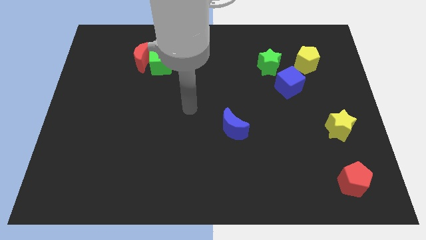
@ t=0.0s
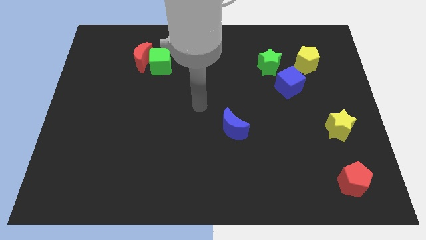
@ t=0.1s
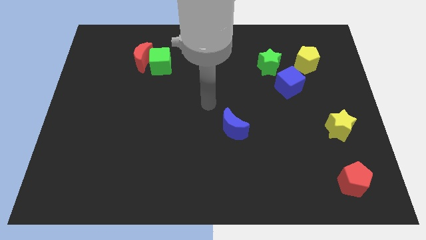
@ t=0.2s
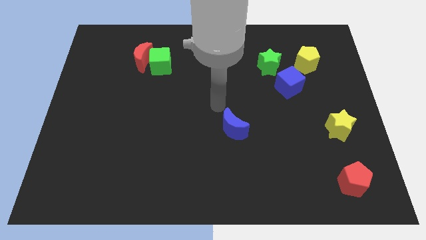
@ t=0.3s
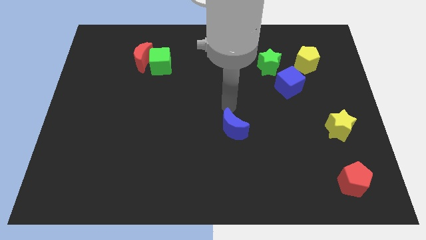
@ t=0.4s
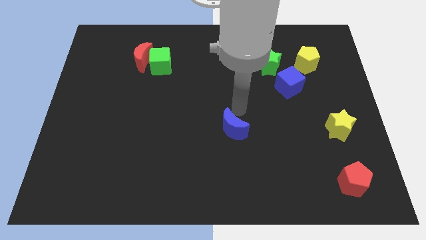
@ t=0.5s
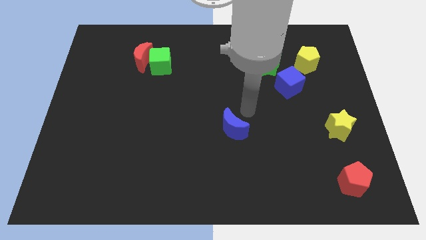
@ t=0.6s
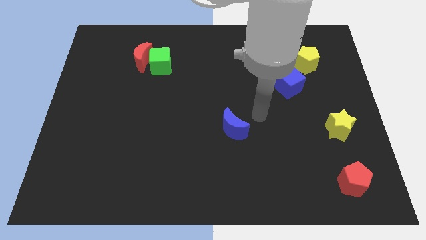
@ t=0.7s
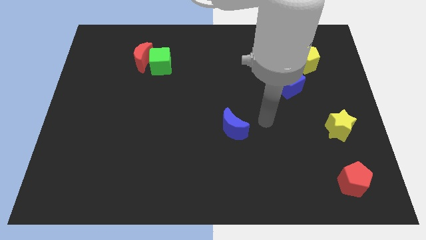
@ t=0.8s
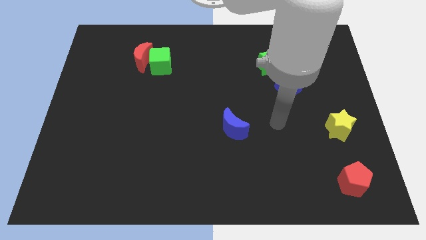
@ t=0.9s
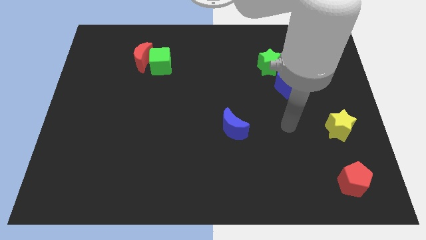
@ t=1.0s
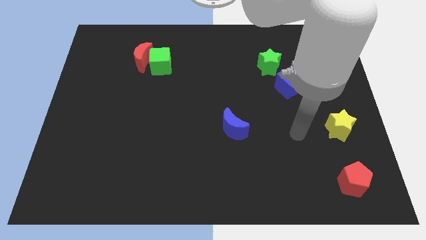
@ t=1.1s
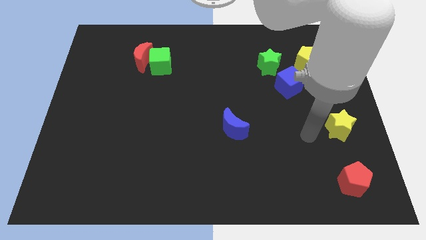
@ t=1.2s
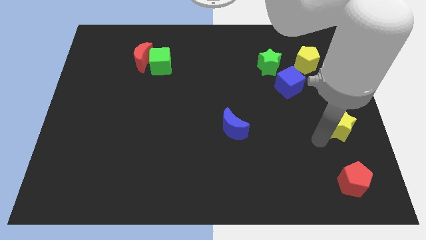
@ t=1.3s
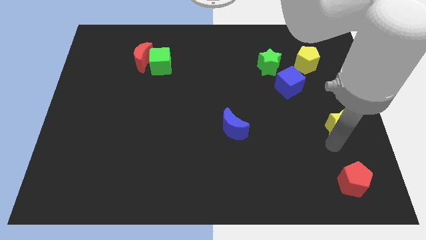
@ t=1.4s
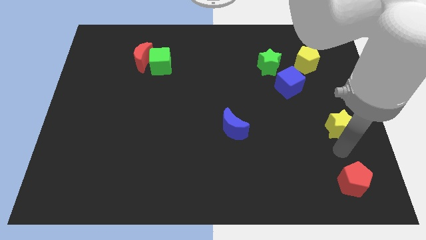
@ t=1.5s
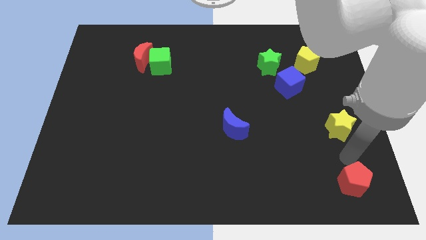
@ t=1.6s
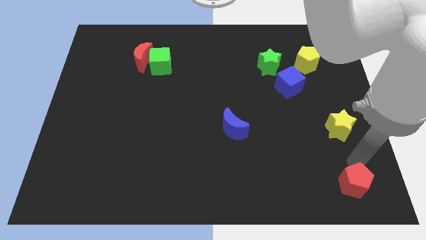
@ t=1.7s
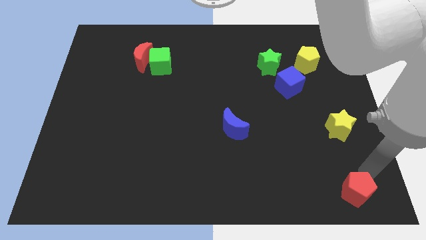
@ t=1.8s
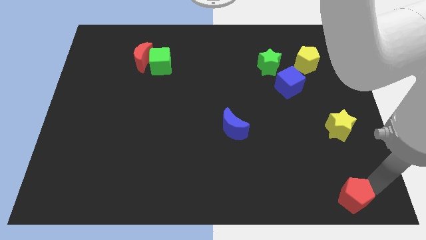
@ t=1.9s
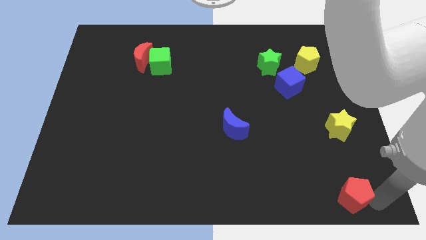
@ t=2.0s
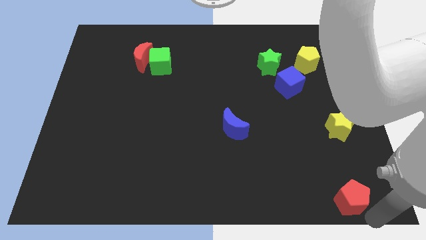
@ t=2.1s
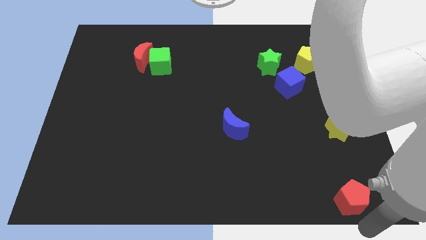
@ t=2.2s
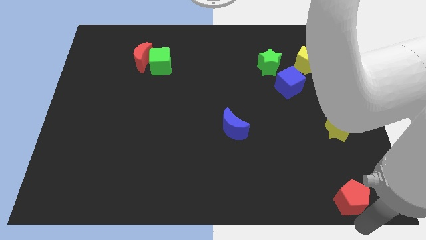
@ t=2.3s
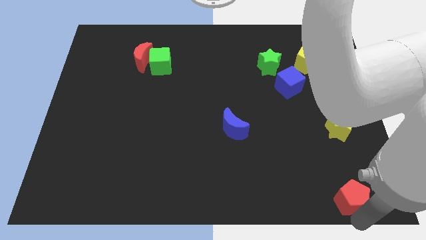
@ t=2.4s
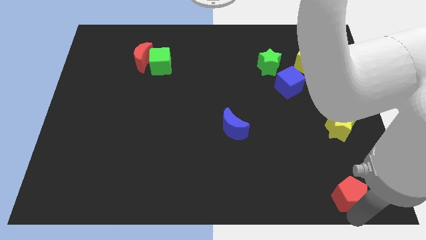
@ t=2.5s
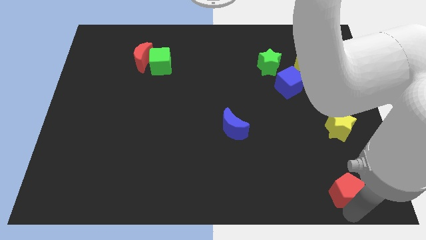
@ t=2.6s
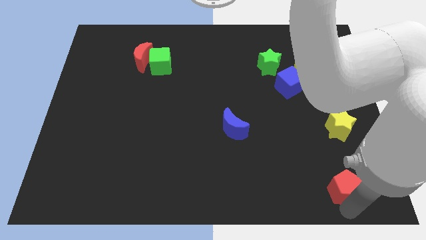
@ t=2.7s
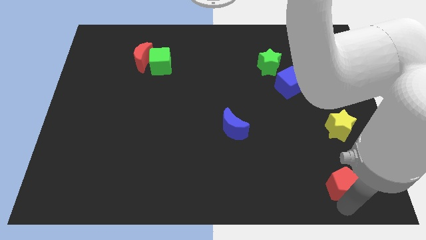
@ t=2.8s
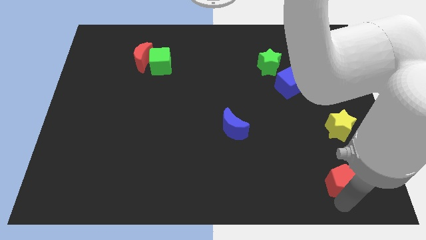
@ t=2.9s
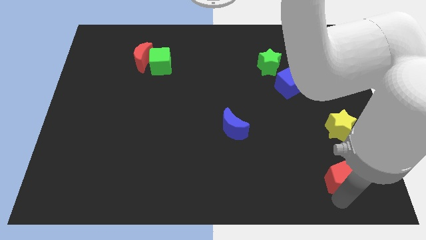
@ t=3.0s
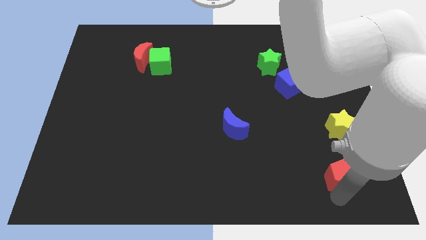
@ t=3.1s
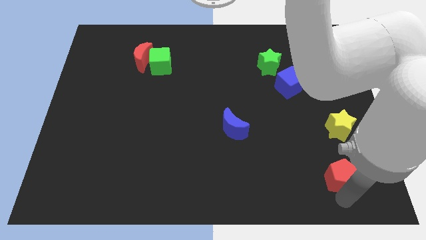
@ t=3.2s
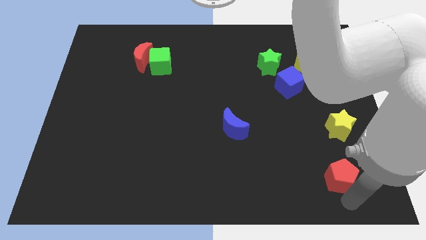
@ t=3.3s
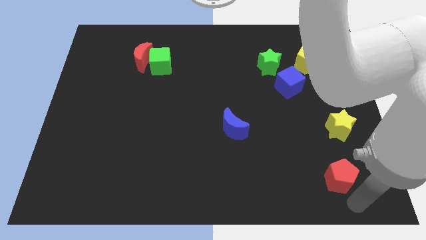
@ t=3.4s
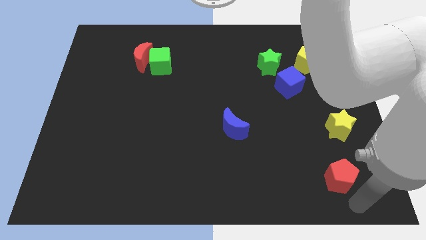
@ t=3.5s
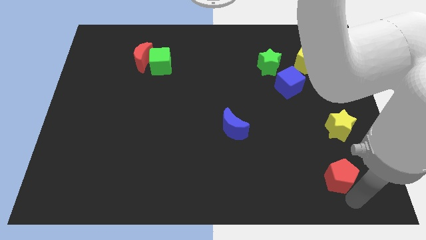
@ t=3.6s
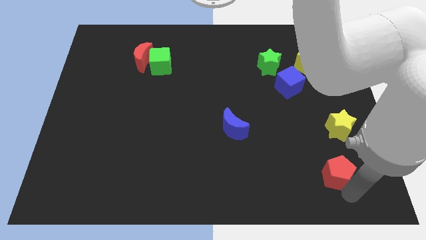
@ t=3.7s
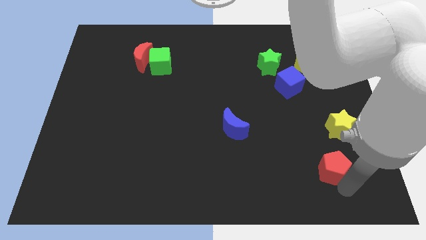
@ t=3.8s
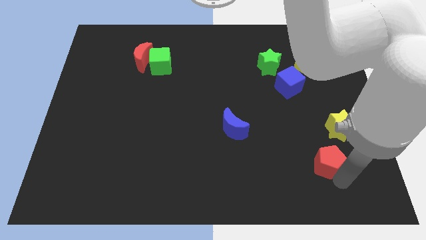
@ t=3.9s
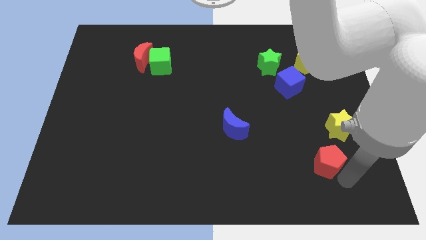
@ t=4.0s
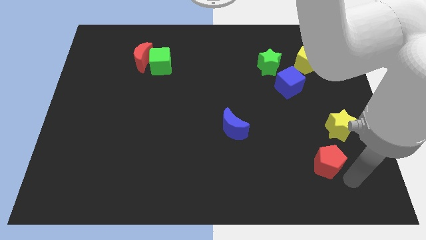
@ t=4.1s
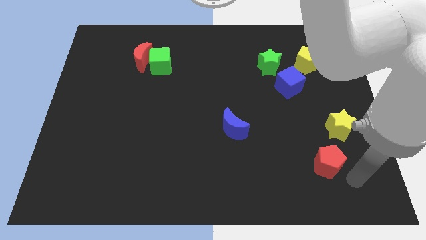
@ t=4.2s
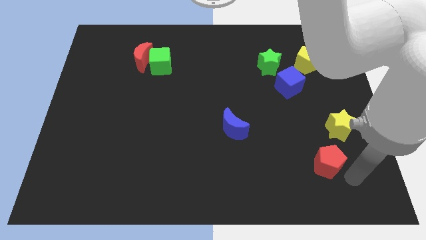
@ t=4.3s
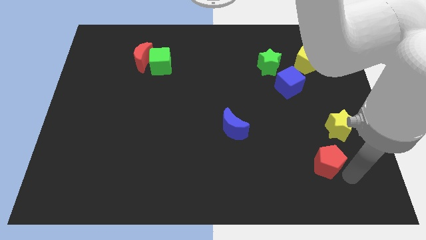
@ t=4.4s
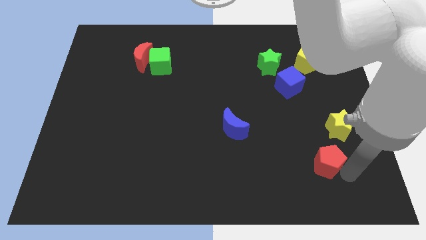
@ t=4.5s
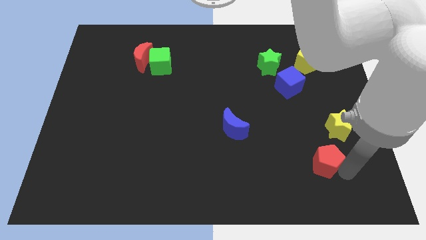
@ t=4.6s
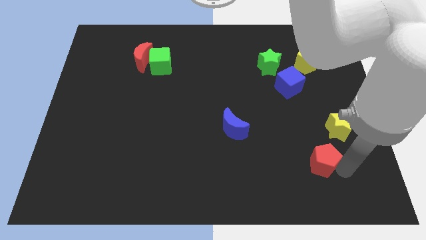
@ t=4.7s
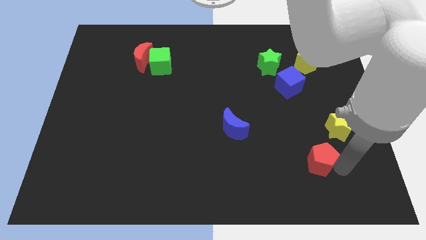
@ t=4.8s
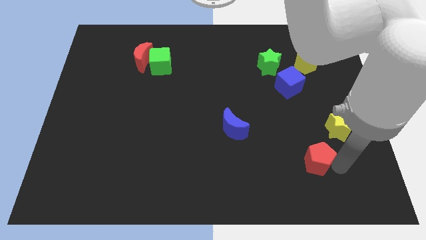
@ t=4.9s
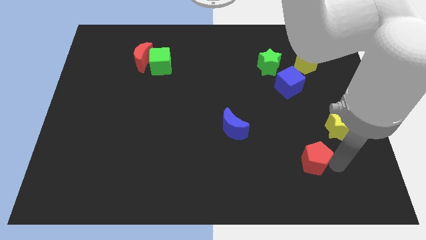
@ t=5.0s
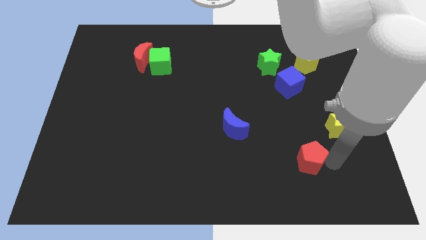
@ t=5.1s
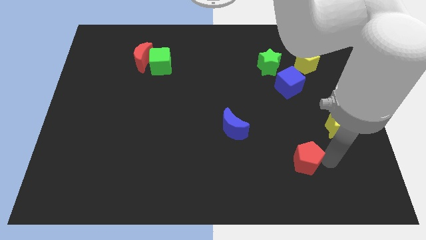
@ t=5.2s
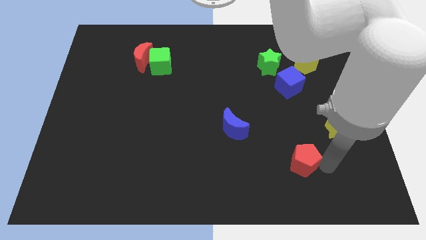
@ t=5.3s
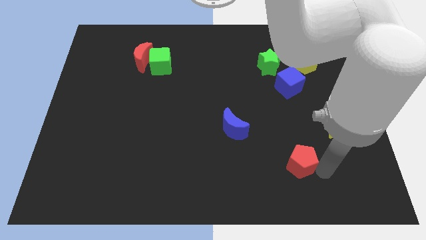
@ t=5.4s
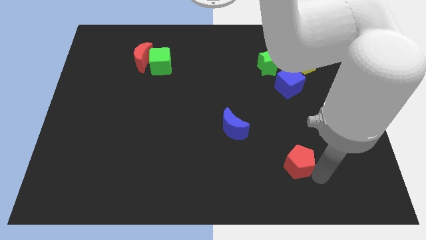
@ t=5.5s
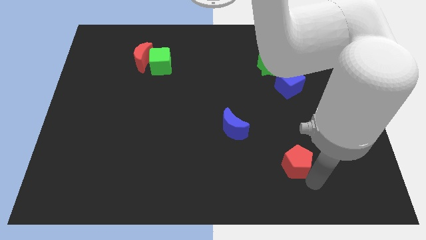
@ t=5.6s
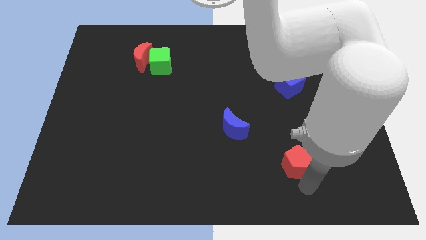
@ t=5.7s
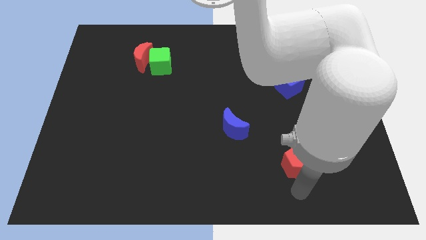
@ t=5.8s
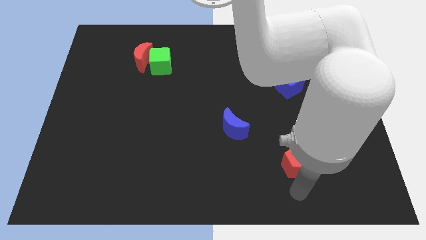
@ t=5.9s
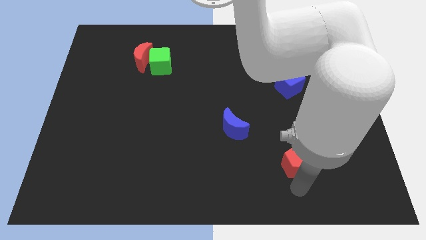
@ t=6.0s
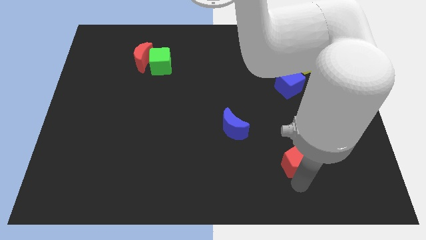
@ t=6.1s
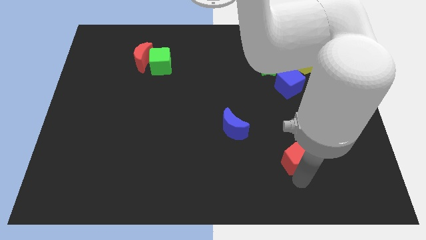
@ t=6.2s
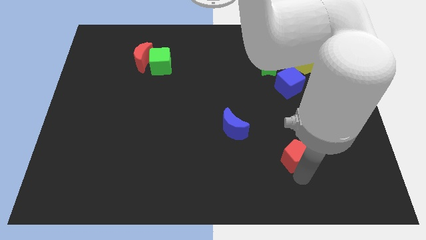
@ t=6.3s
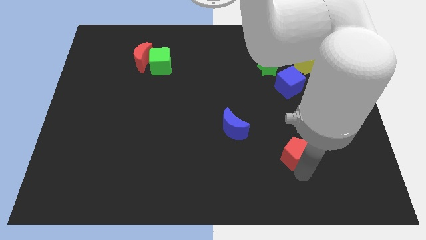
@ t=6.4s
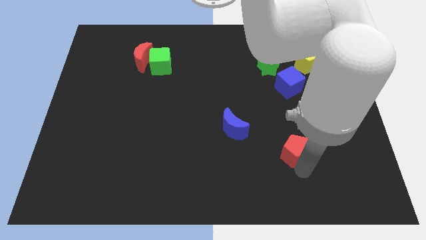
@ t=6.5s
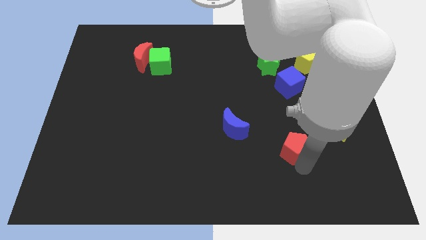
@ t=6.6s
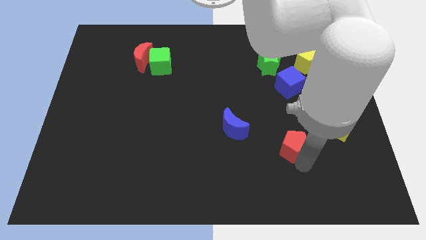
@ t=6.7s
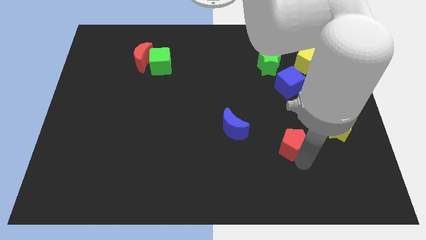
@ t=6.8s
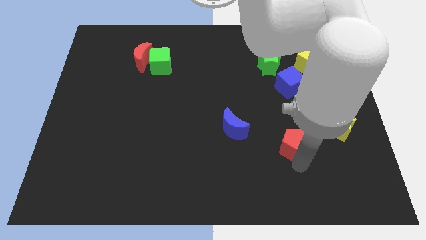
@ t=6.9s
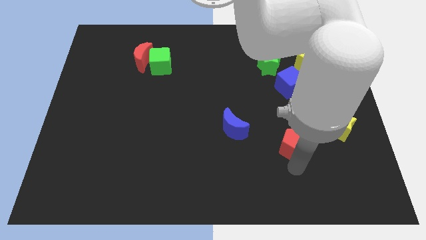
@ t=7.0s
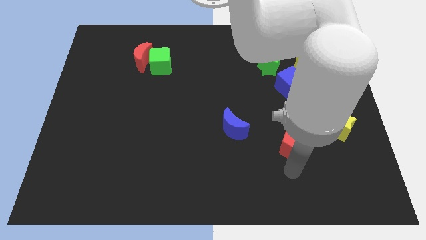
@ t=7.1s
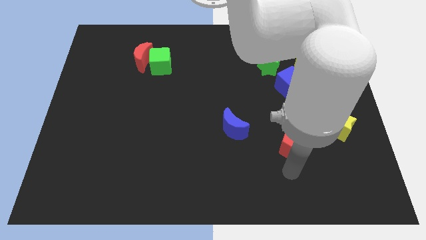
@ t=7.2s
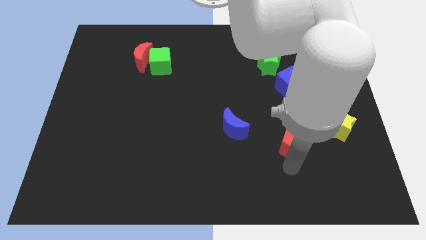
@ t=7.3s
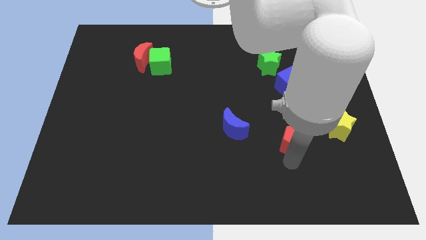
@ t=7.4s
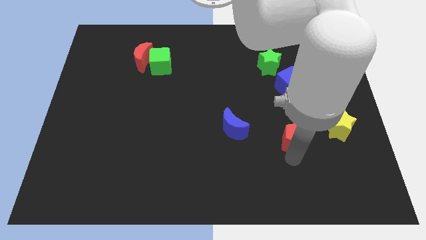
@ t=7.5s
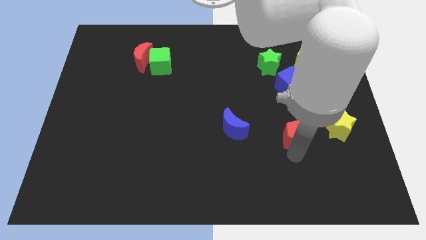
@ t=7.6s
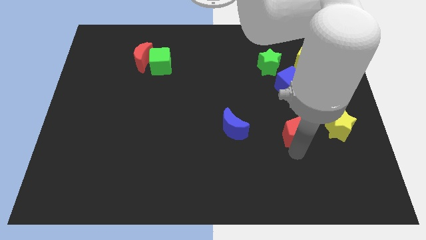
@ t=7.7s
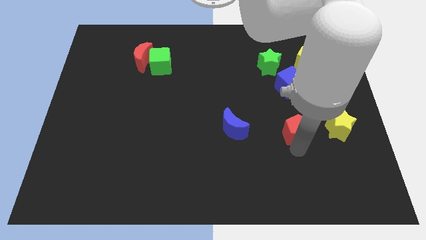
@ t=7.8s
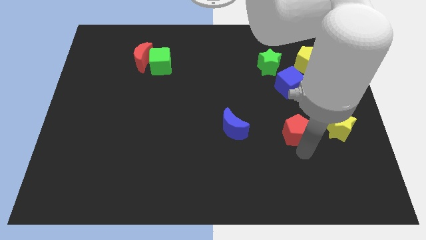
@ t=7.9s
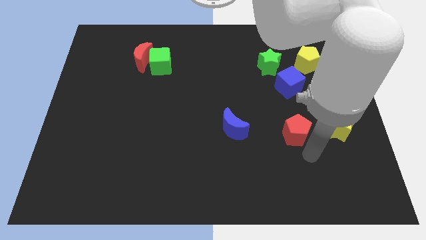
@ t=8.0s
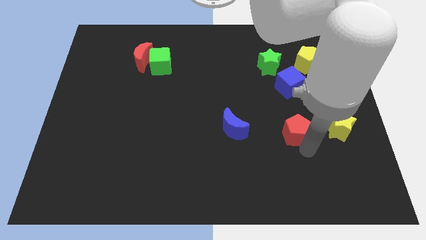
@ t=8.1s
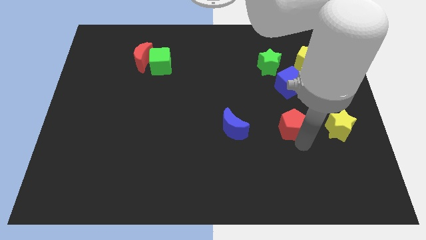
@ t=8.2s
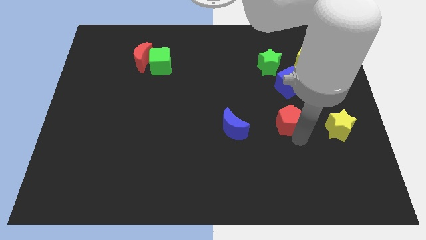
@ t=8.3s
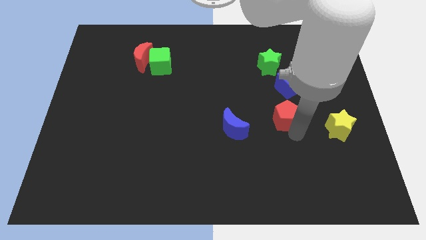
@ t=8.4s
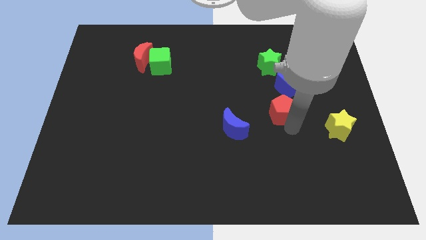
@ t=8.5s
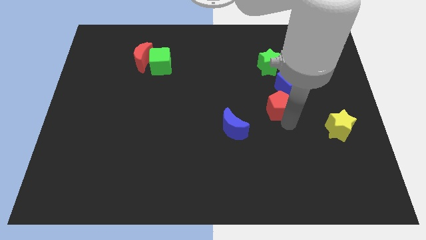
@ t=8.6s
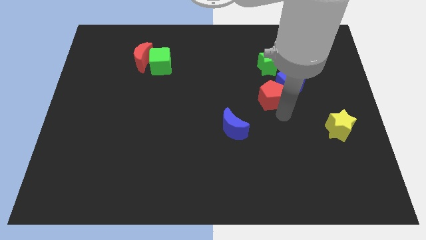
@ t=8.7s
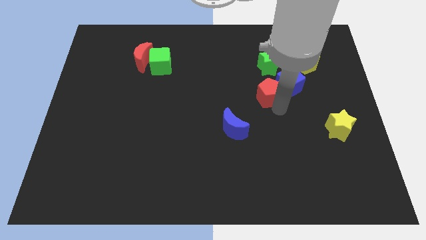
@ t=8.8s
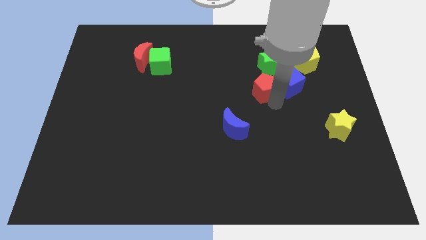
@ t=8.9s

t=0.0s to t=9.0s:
push the red pentagon to the bottom left side of the green star
